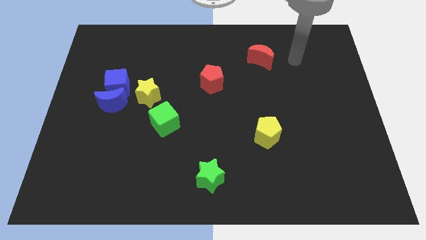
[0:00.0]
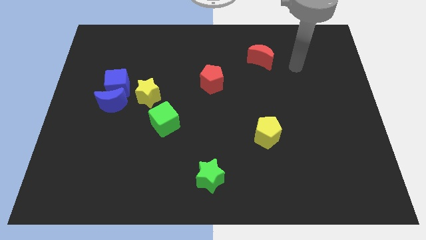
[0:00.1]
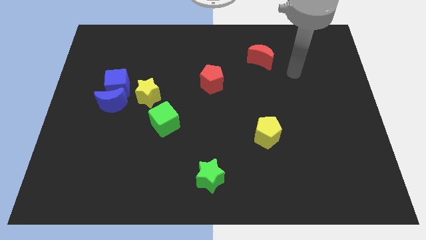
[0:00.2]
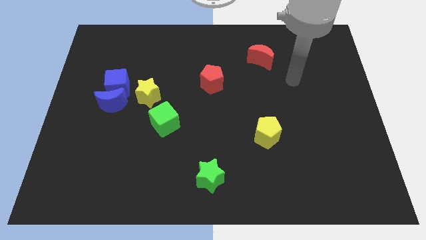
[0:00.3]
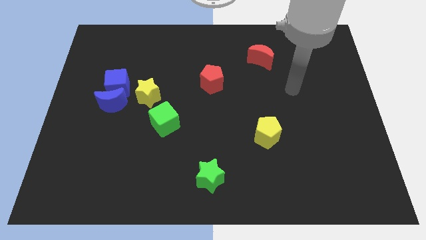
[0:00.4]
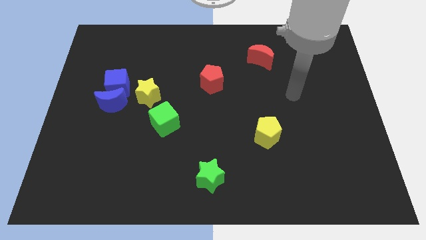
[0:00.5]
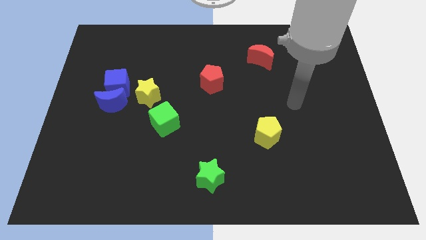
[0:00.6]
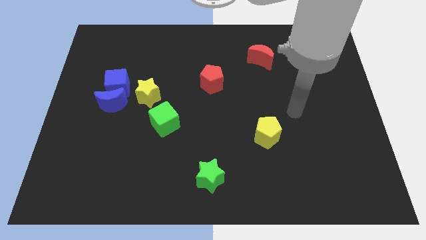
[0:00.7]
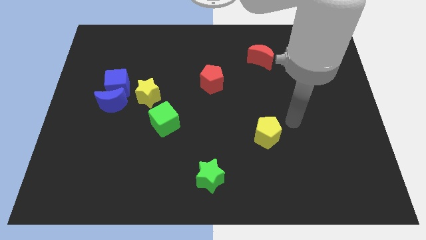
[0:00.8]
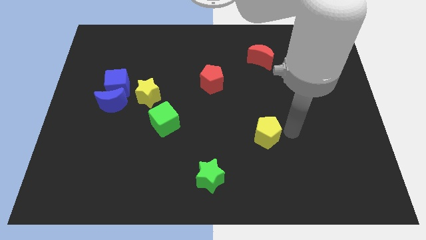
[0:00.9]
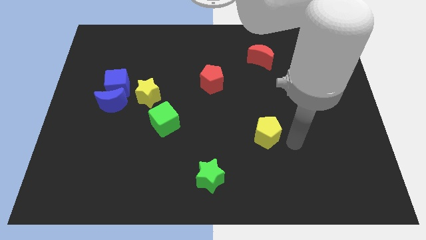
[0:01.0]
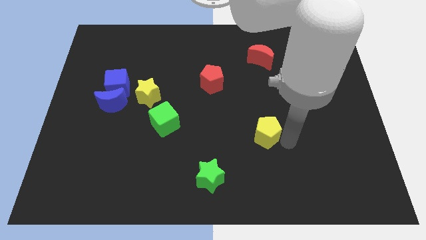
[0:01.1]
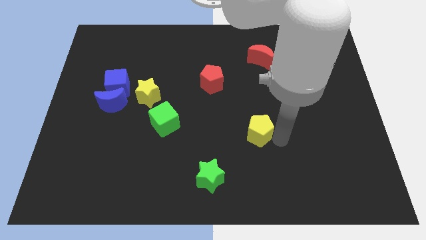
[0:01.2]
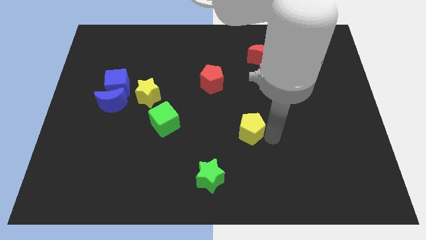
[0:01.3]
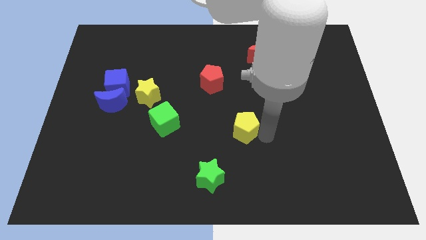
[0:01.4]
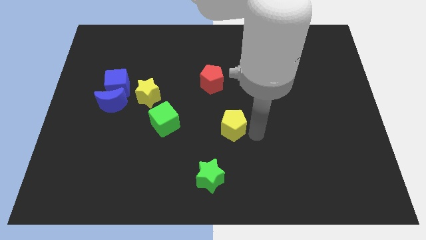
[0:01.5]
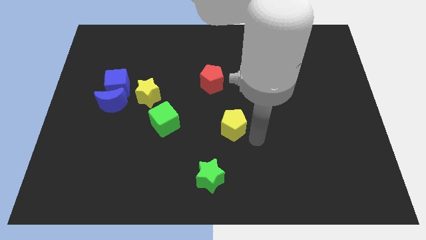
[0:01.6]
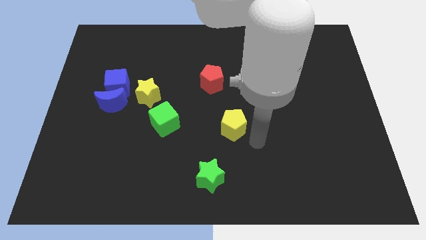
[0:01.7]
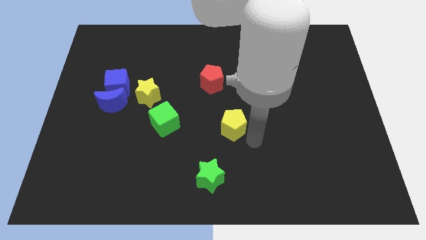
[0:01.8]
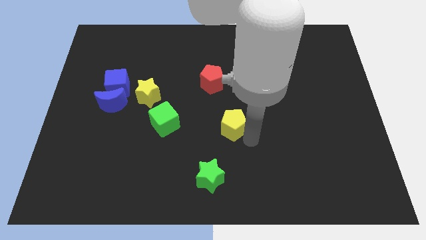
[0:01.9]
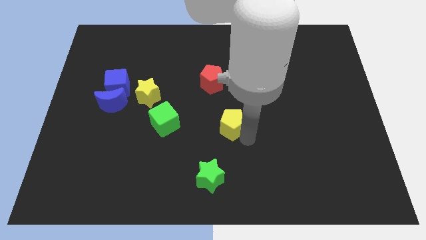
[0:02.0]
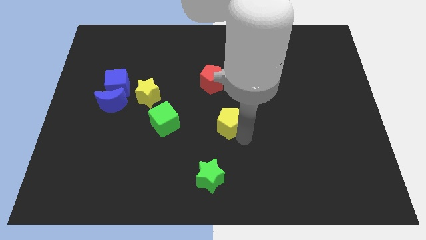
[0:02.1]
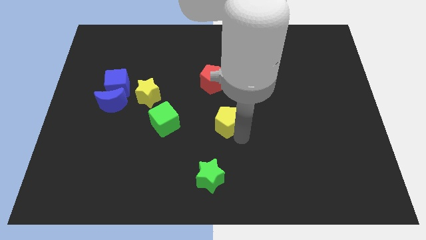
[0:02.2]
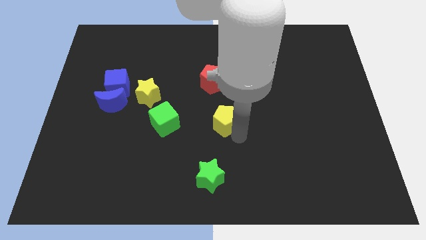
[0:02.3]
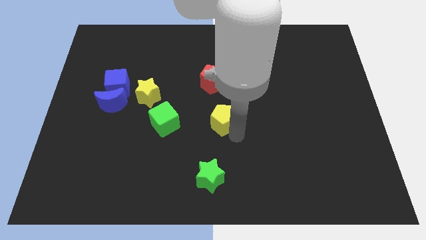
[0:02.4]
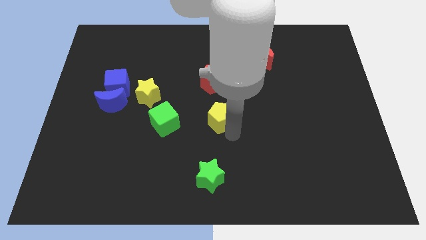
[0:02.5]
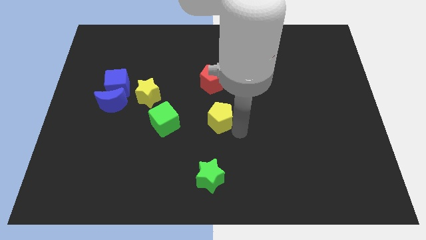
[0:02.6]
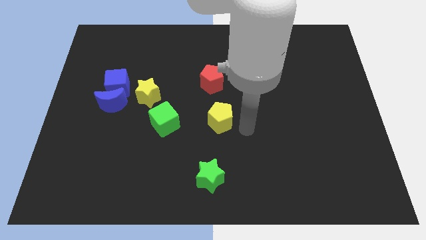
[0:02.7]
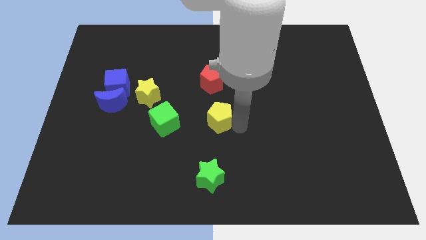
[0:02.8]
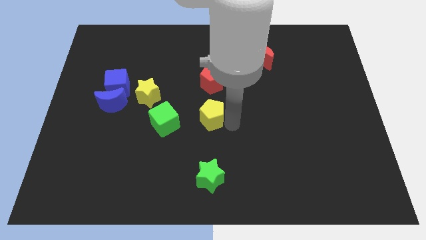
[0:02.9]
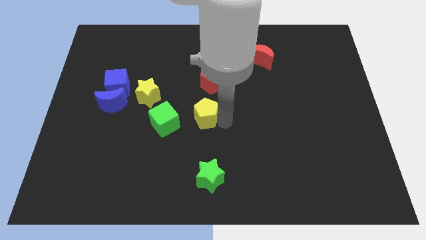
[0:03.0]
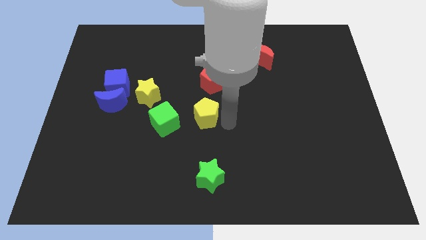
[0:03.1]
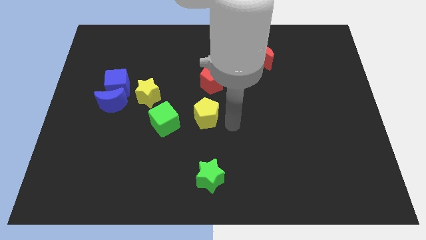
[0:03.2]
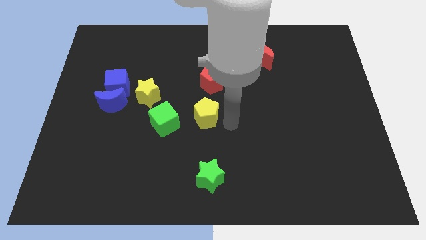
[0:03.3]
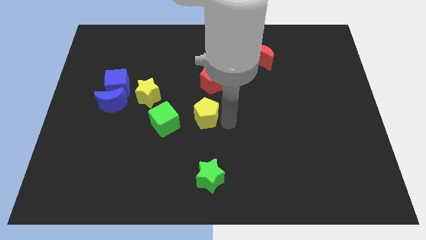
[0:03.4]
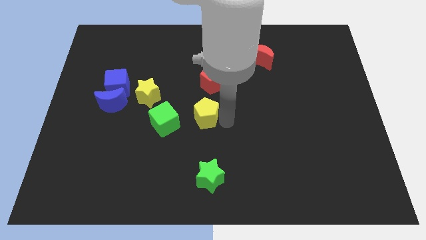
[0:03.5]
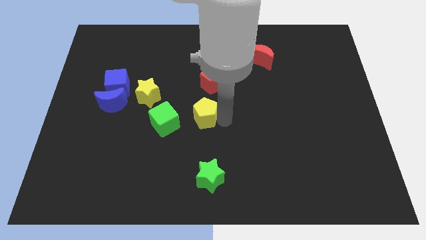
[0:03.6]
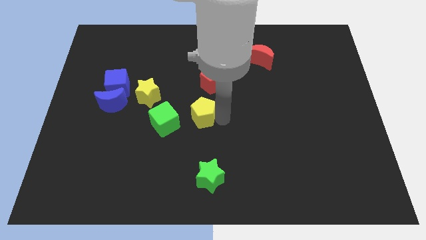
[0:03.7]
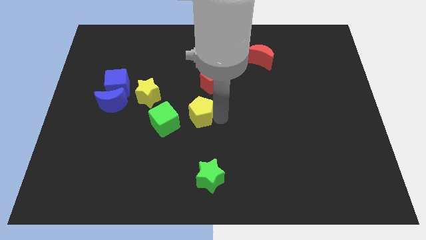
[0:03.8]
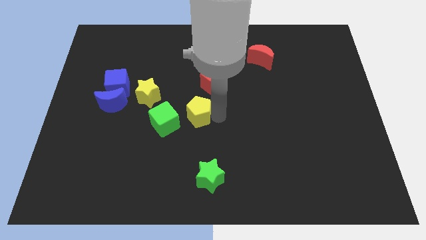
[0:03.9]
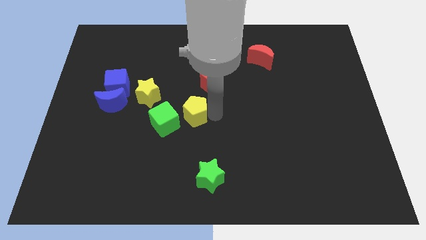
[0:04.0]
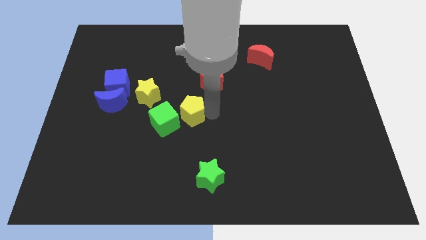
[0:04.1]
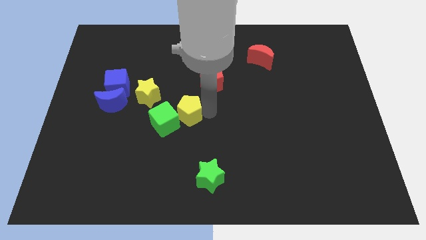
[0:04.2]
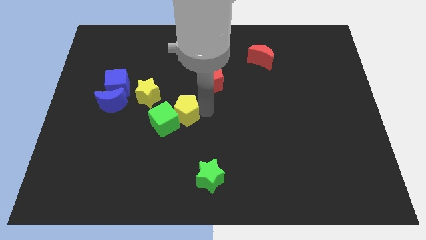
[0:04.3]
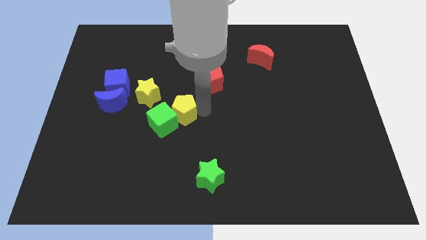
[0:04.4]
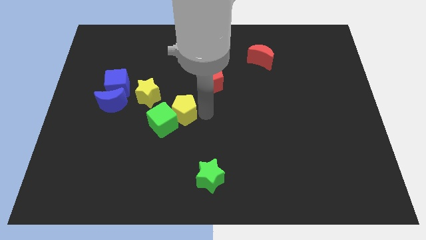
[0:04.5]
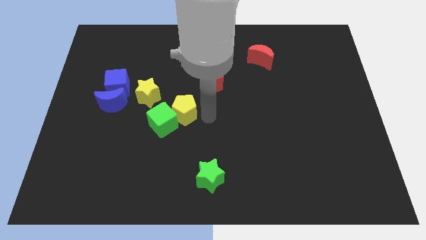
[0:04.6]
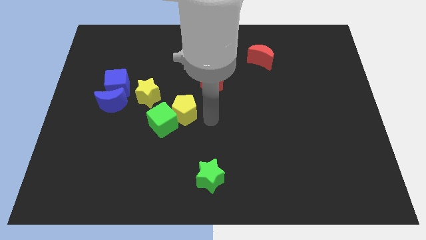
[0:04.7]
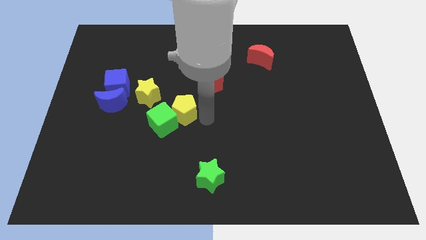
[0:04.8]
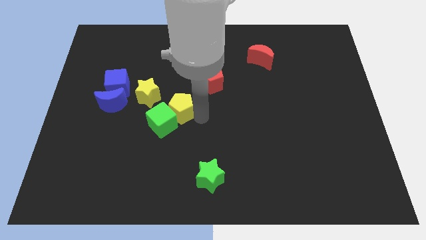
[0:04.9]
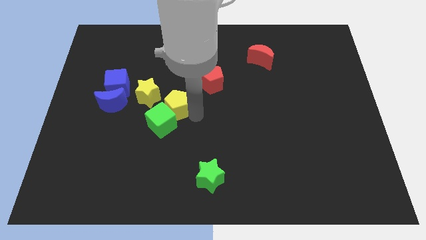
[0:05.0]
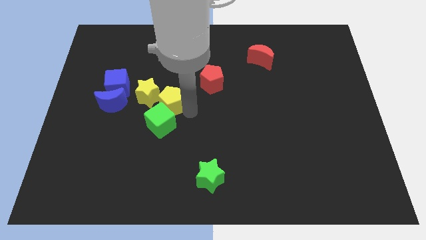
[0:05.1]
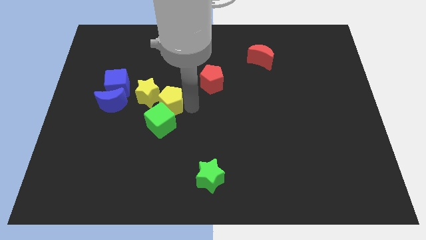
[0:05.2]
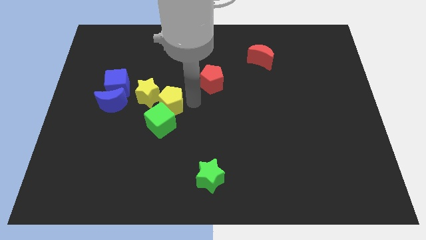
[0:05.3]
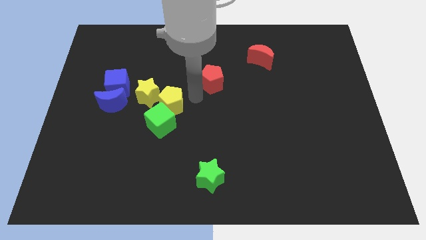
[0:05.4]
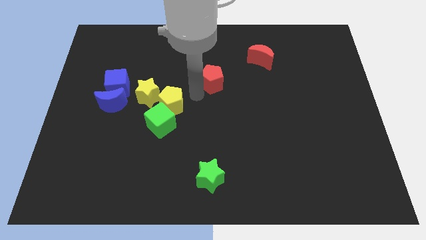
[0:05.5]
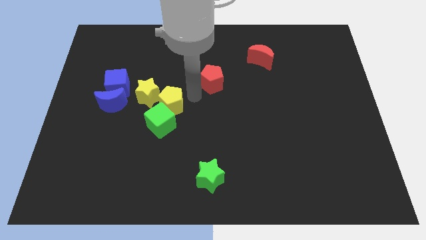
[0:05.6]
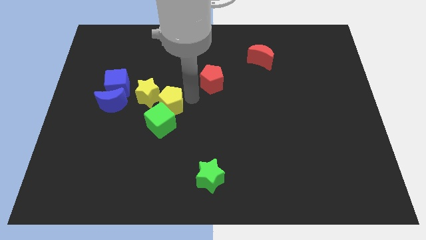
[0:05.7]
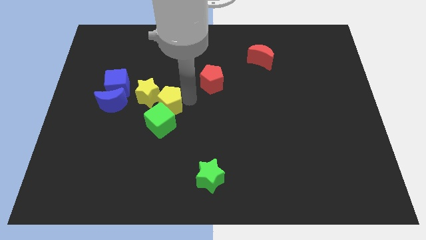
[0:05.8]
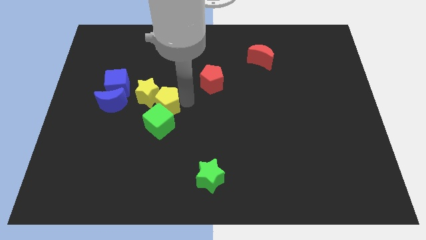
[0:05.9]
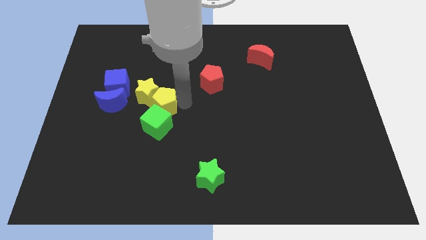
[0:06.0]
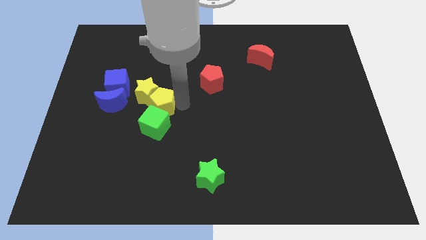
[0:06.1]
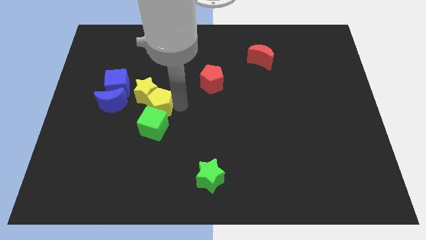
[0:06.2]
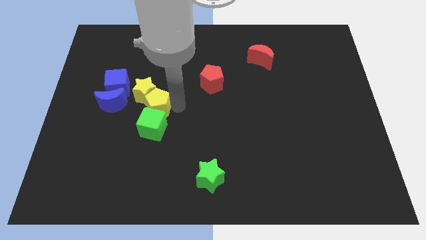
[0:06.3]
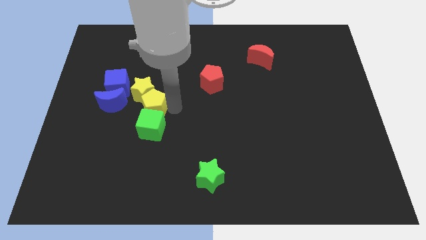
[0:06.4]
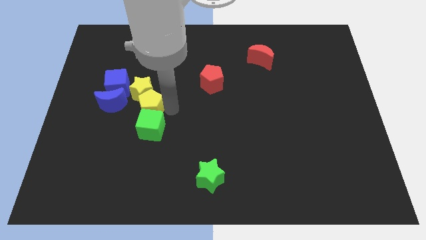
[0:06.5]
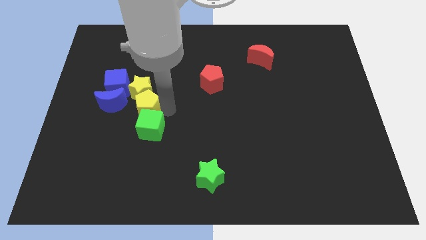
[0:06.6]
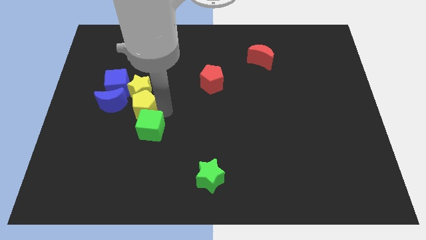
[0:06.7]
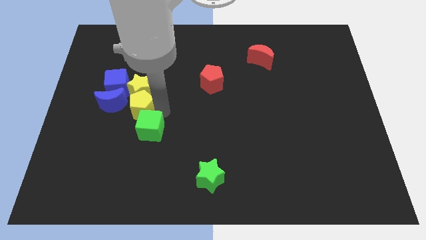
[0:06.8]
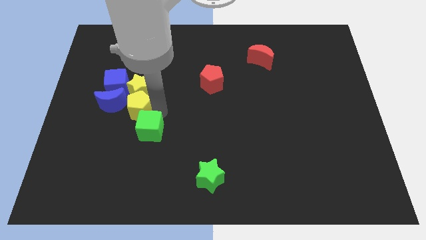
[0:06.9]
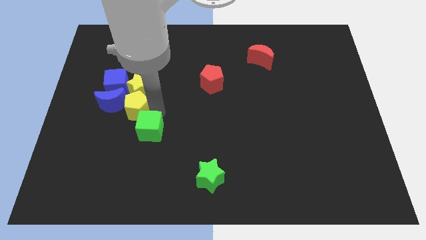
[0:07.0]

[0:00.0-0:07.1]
push the yellow pentagon close to the blue moon
